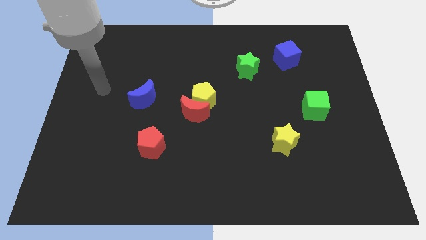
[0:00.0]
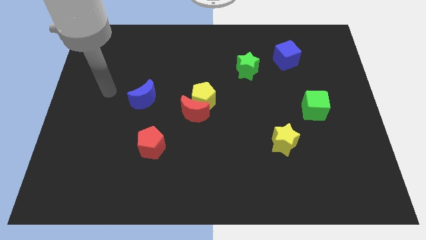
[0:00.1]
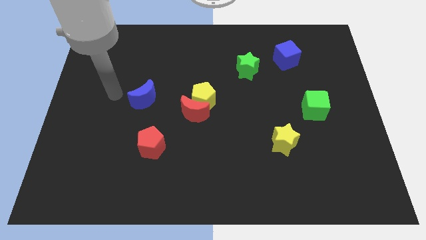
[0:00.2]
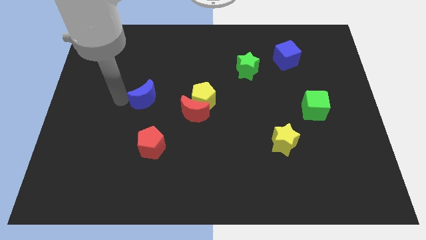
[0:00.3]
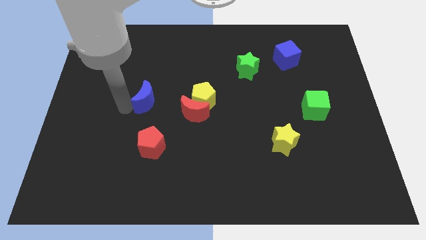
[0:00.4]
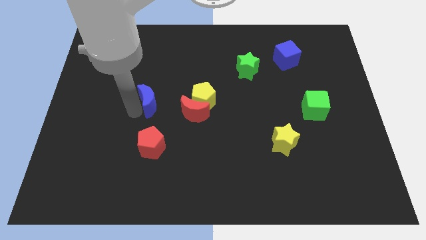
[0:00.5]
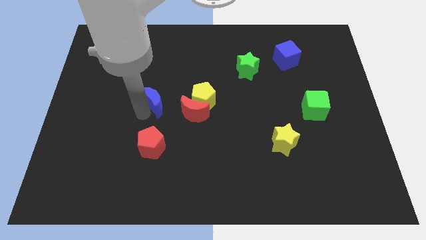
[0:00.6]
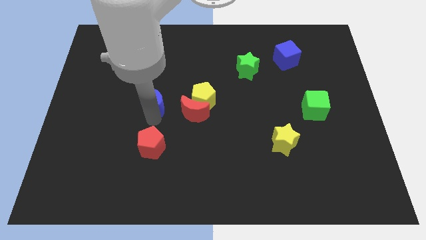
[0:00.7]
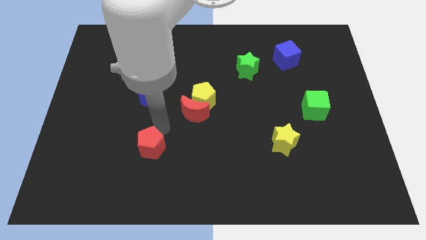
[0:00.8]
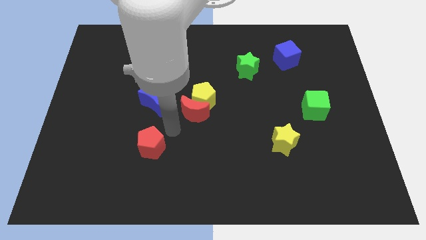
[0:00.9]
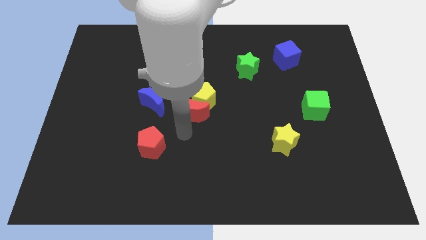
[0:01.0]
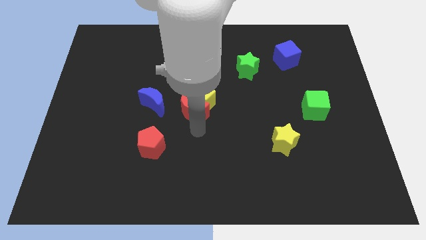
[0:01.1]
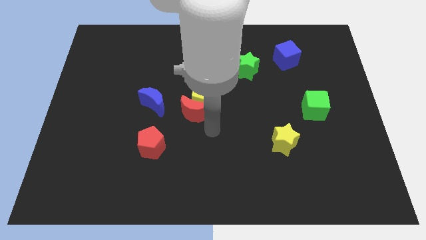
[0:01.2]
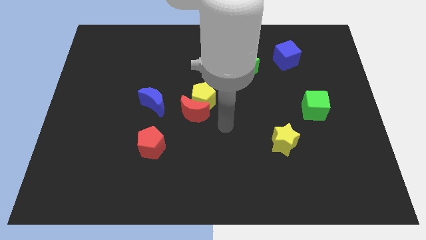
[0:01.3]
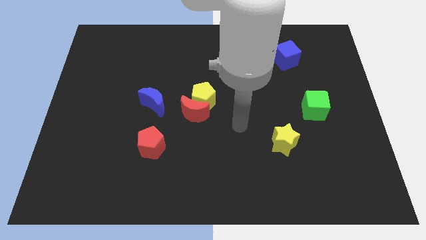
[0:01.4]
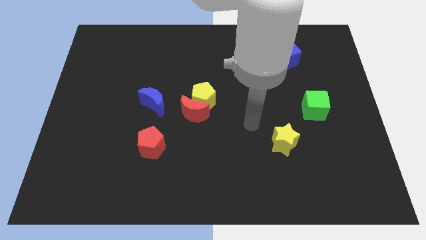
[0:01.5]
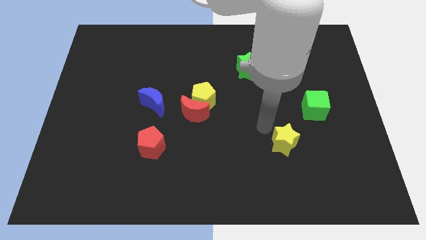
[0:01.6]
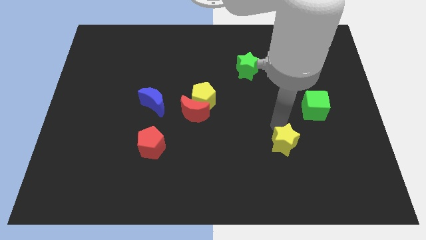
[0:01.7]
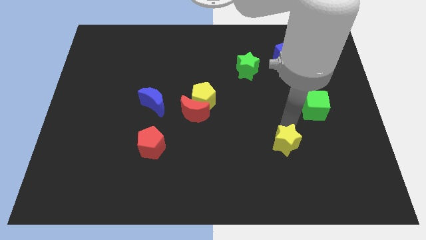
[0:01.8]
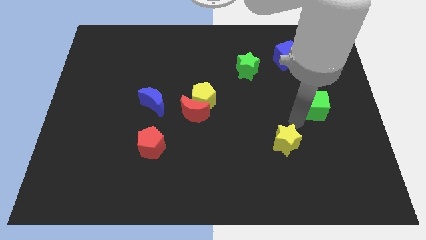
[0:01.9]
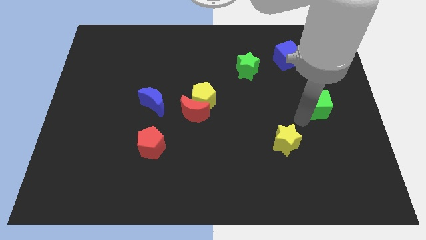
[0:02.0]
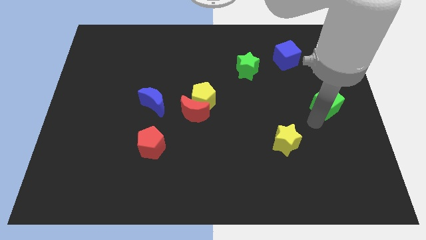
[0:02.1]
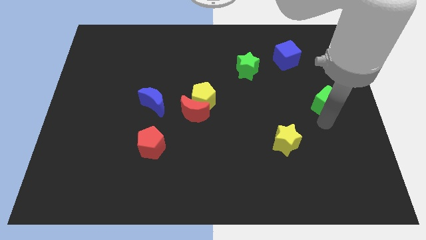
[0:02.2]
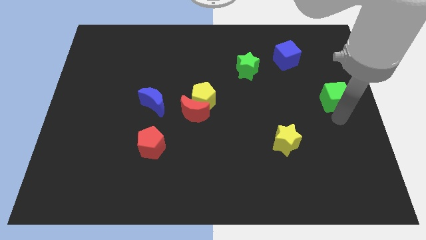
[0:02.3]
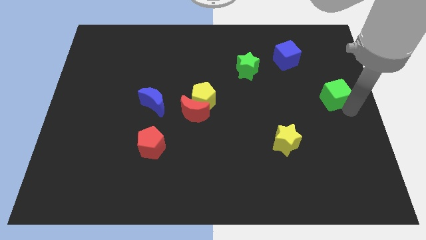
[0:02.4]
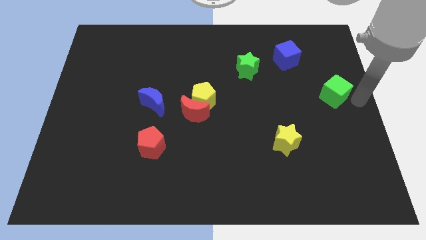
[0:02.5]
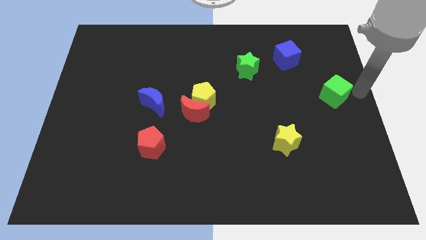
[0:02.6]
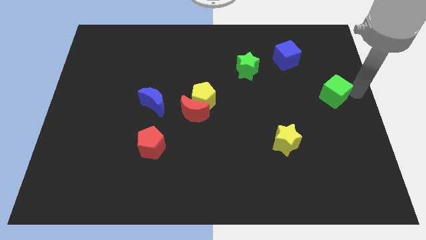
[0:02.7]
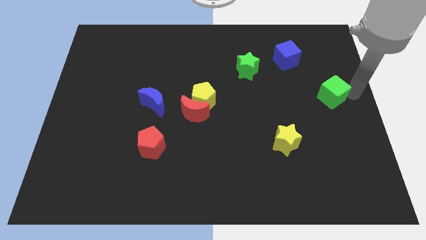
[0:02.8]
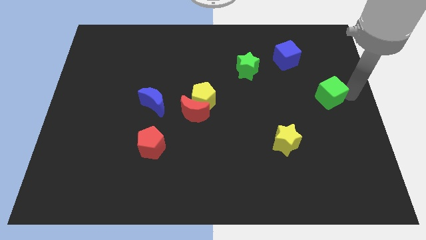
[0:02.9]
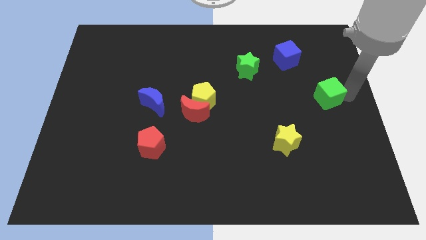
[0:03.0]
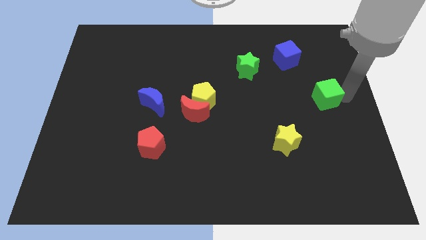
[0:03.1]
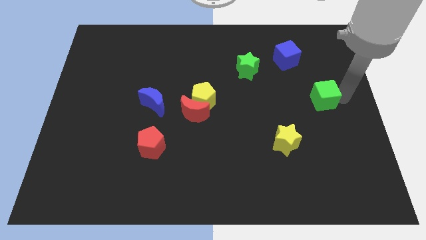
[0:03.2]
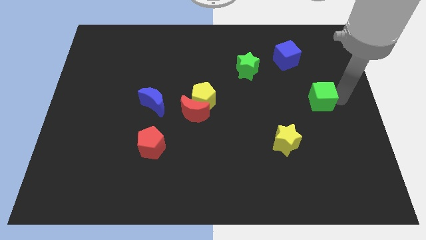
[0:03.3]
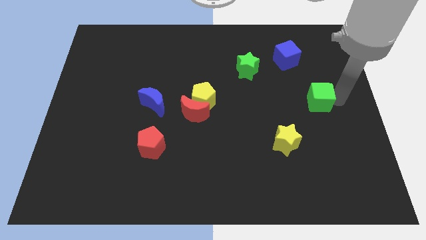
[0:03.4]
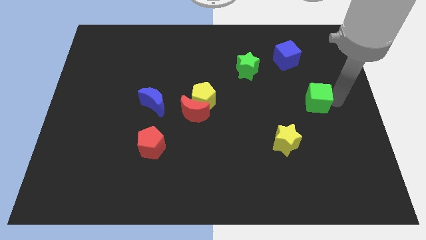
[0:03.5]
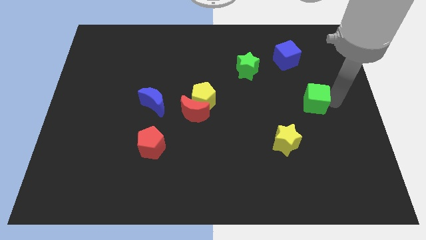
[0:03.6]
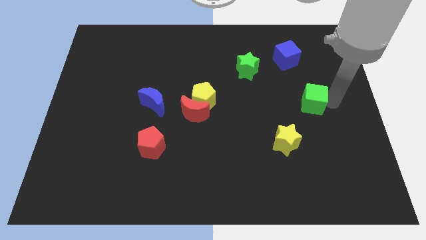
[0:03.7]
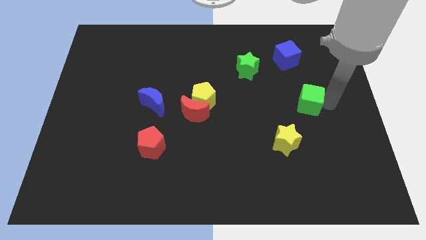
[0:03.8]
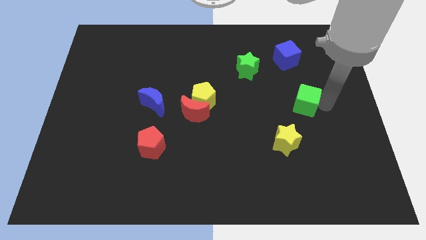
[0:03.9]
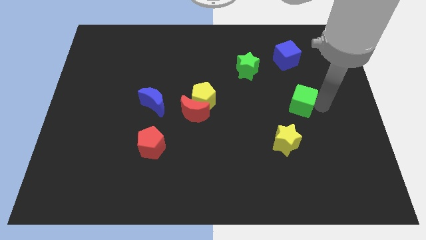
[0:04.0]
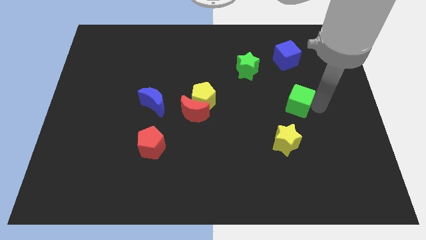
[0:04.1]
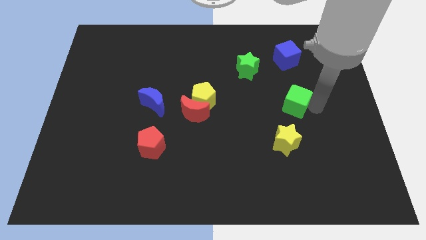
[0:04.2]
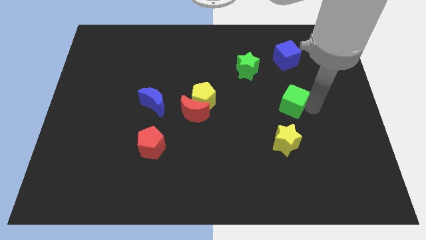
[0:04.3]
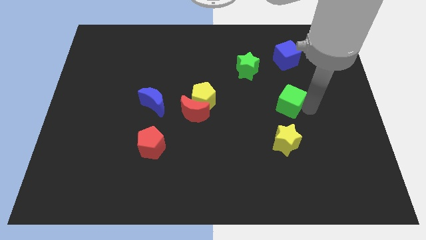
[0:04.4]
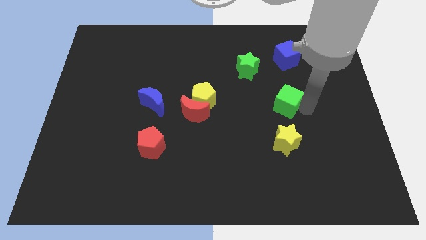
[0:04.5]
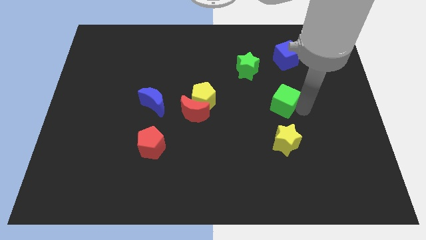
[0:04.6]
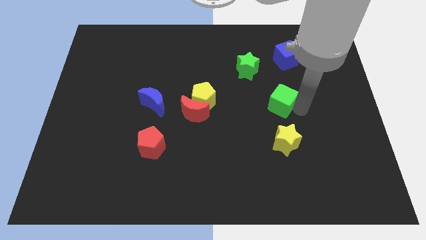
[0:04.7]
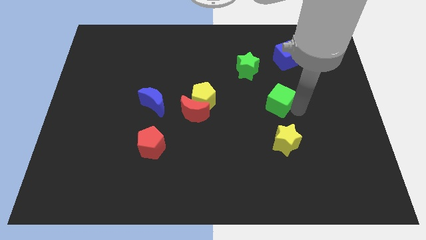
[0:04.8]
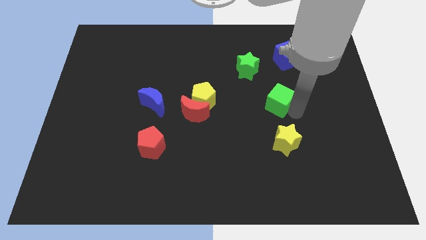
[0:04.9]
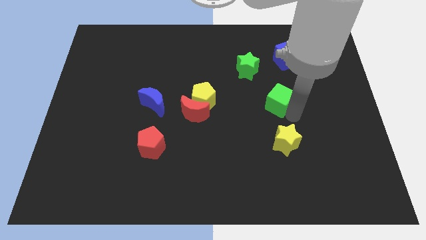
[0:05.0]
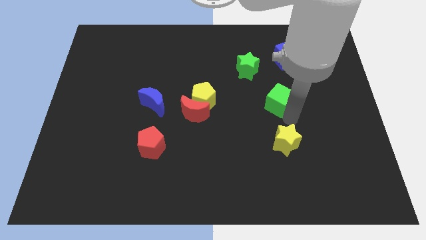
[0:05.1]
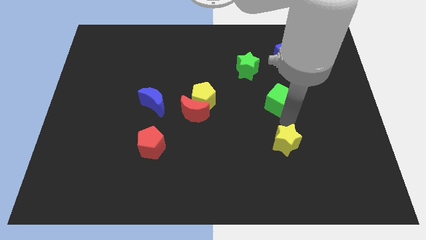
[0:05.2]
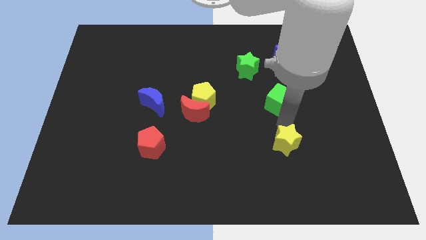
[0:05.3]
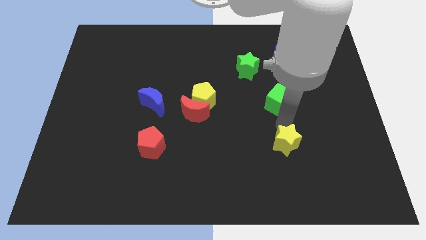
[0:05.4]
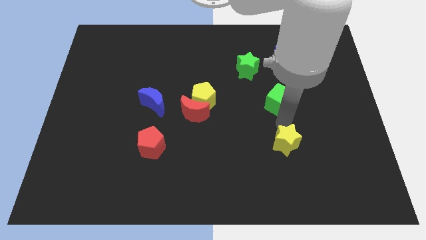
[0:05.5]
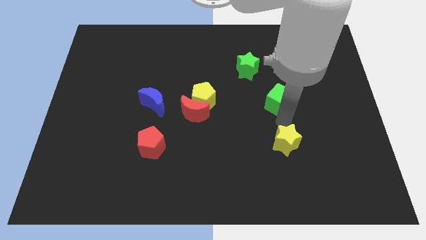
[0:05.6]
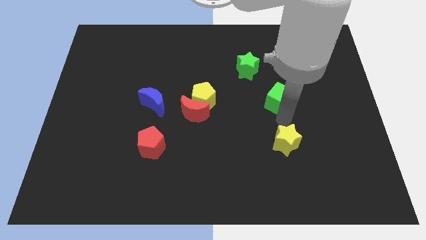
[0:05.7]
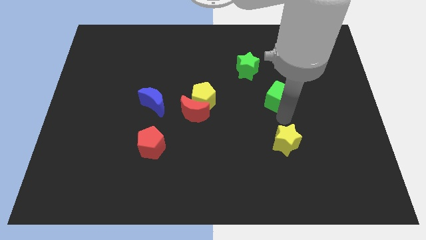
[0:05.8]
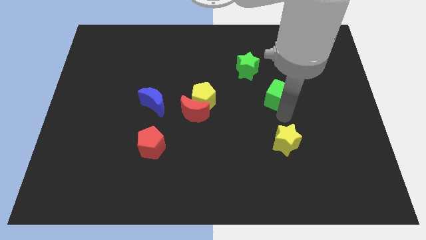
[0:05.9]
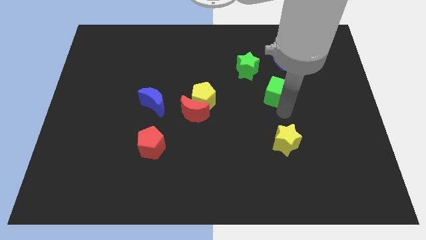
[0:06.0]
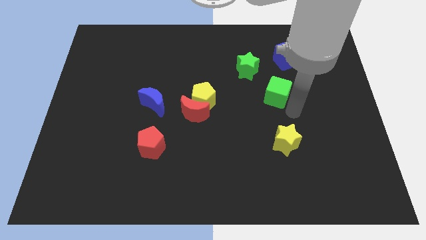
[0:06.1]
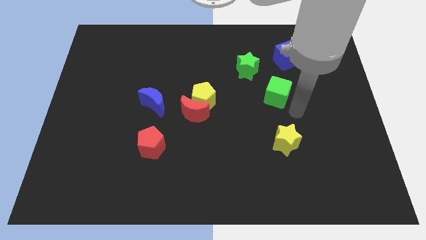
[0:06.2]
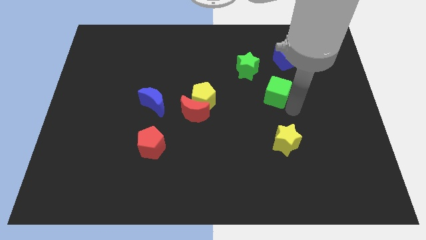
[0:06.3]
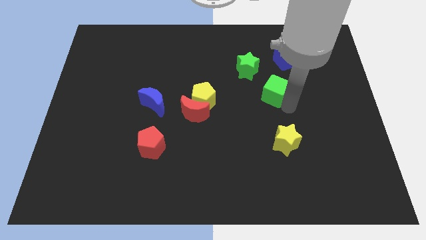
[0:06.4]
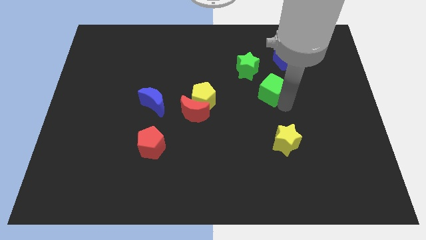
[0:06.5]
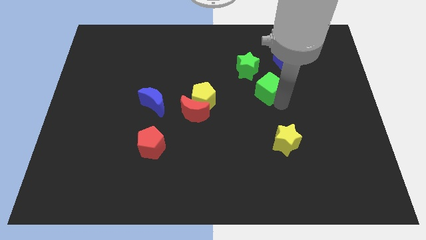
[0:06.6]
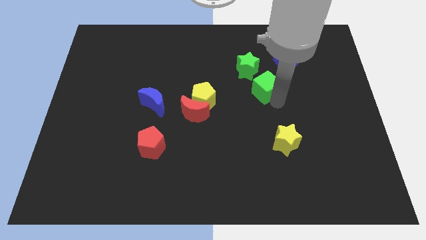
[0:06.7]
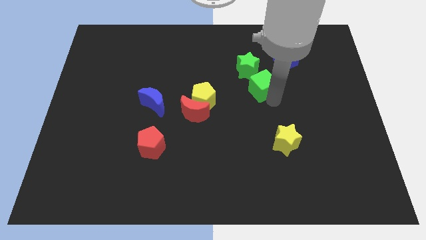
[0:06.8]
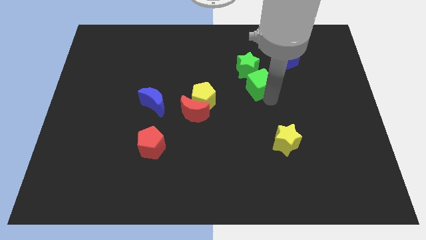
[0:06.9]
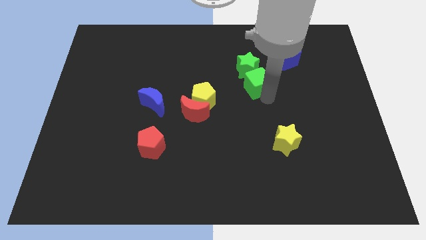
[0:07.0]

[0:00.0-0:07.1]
move the green cube towards the green star

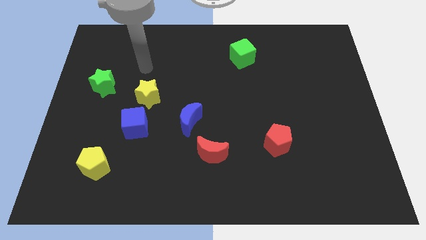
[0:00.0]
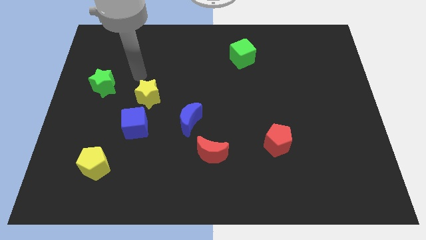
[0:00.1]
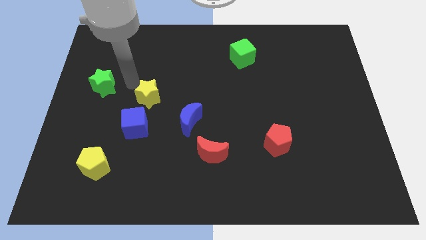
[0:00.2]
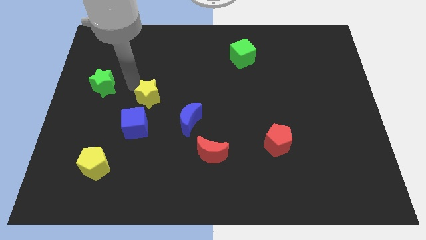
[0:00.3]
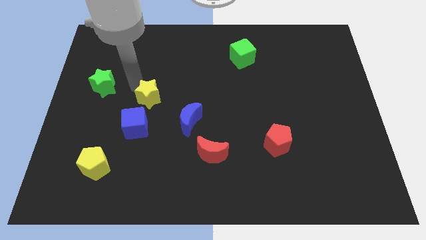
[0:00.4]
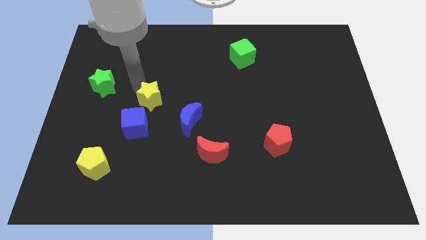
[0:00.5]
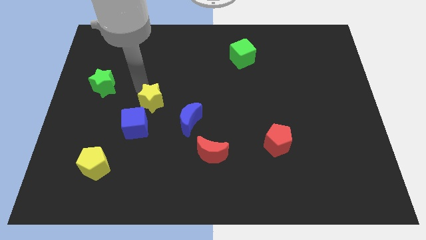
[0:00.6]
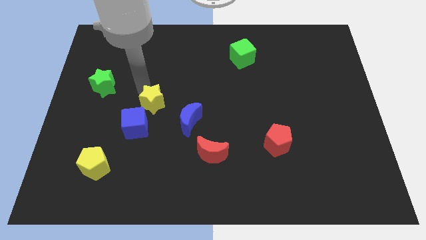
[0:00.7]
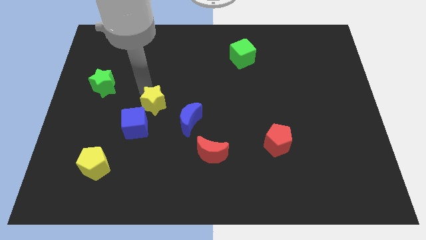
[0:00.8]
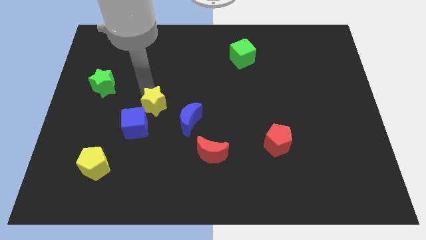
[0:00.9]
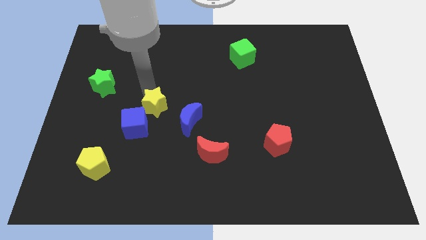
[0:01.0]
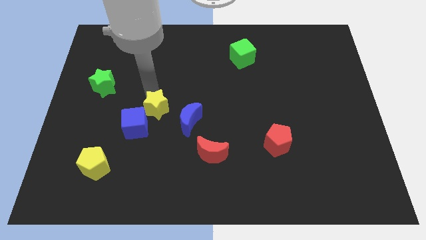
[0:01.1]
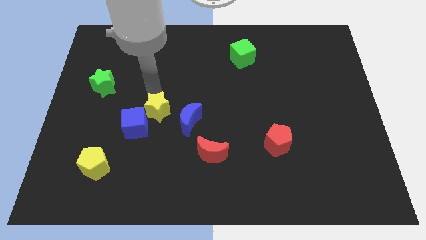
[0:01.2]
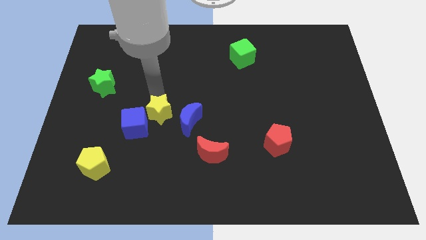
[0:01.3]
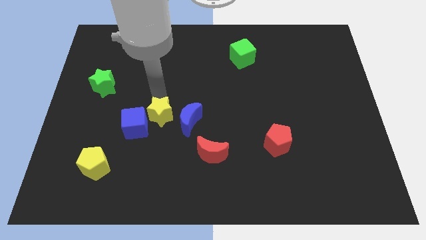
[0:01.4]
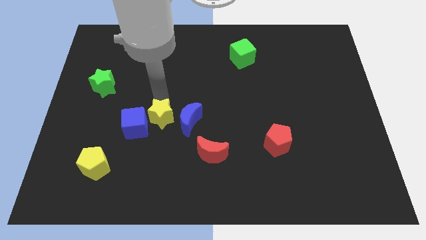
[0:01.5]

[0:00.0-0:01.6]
slide the yellow star next to the blue moon
